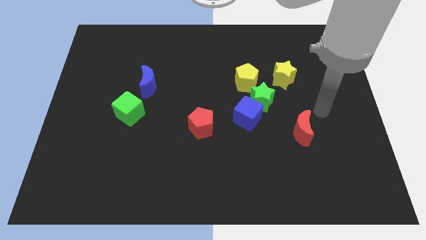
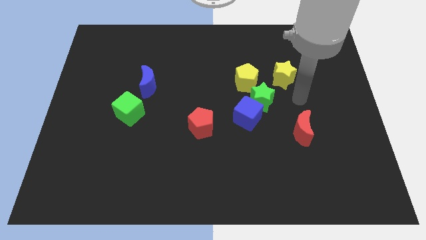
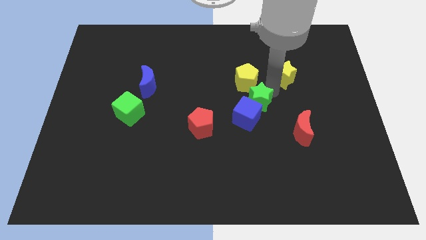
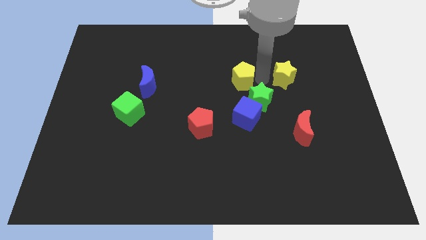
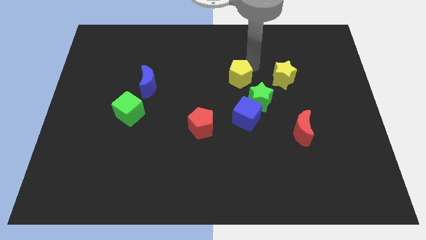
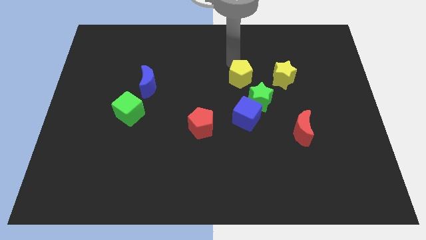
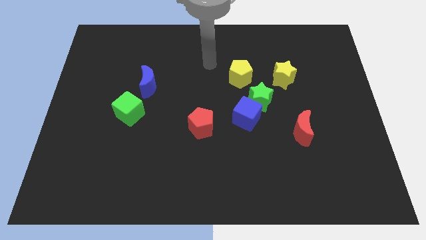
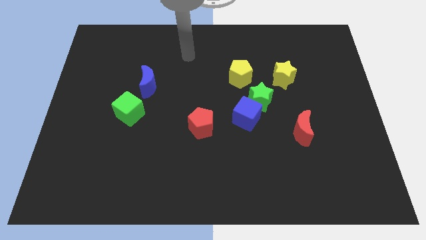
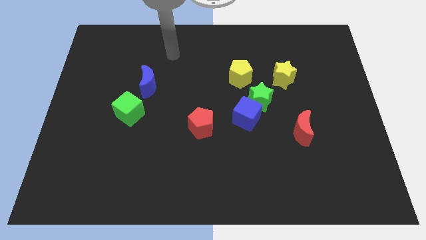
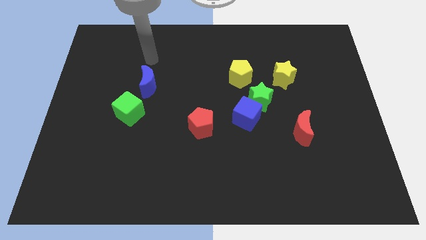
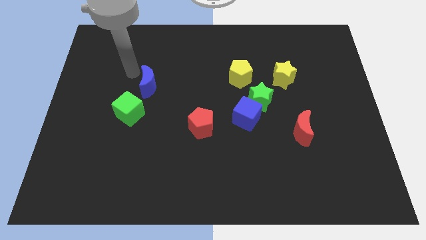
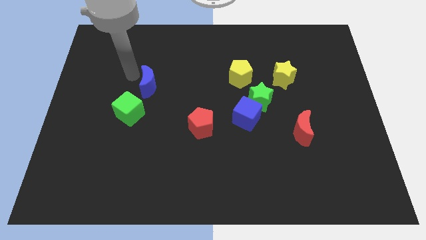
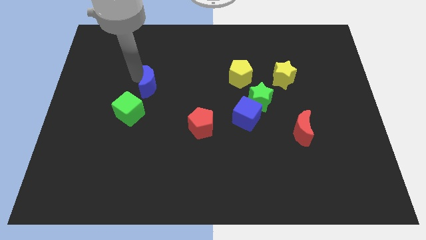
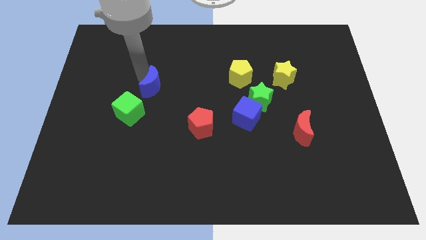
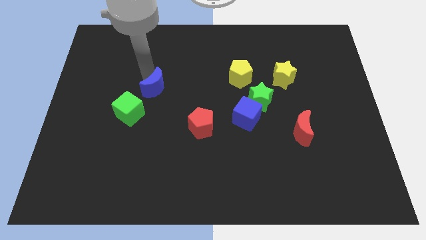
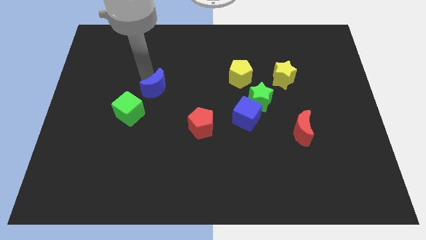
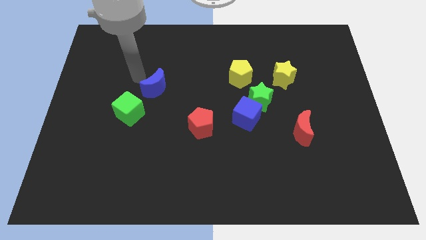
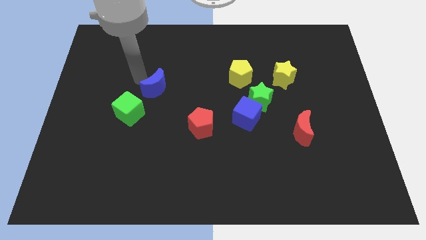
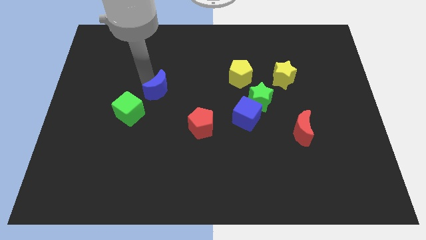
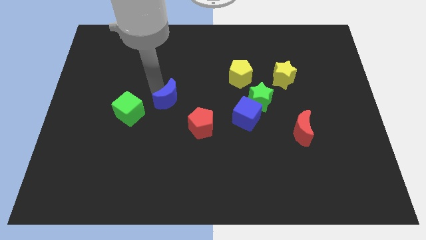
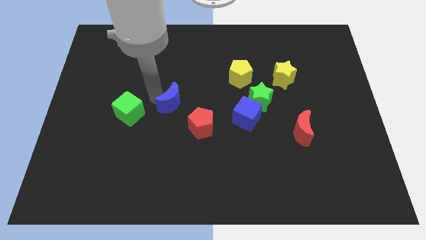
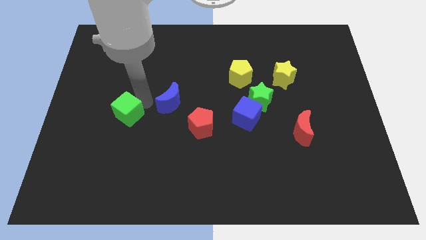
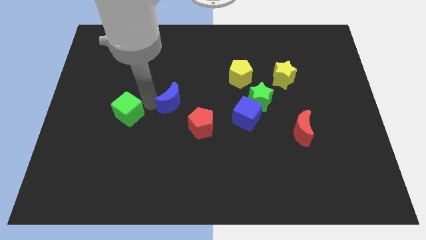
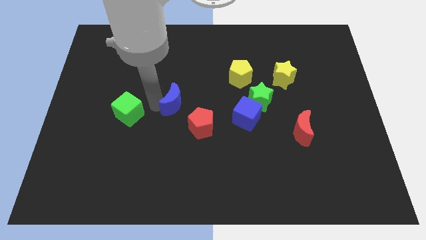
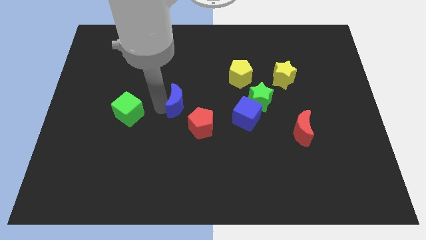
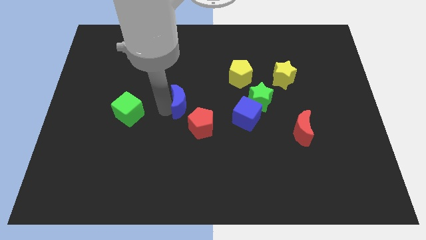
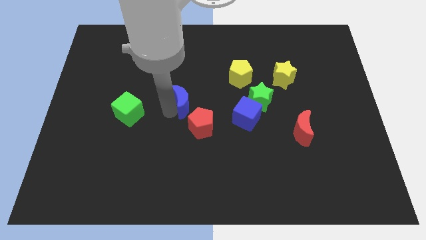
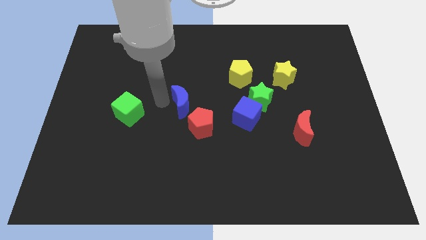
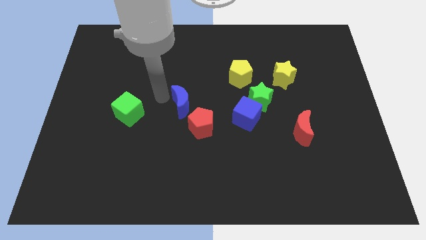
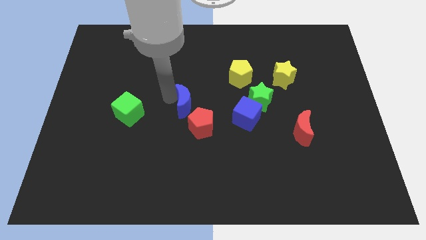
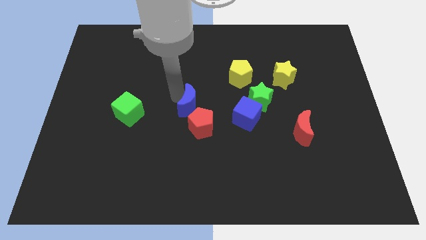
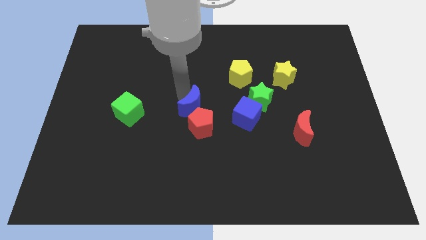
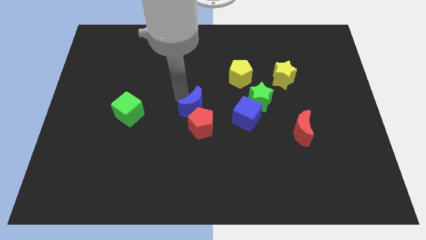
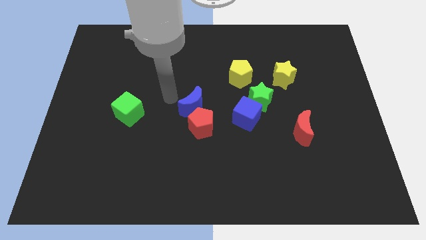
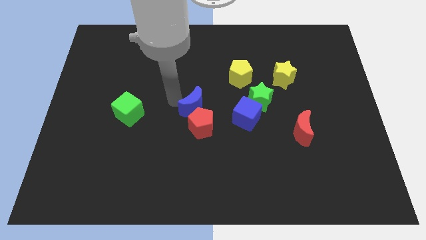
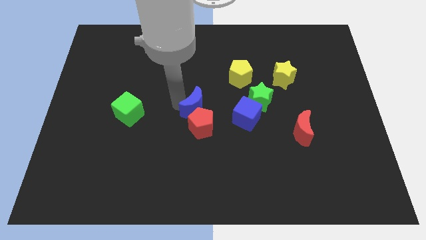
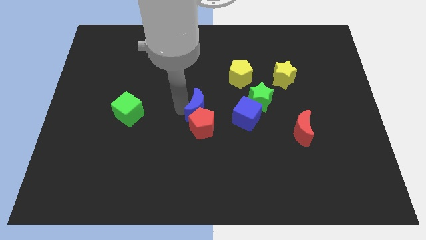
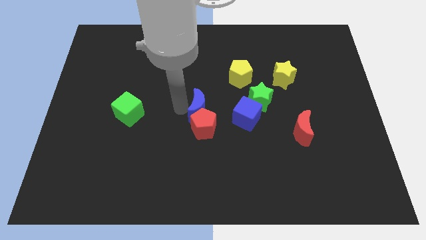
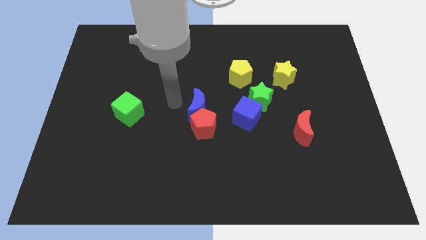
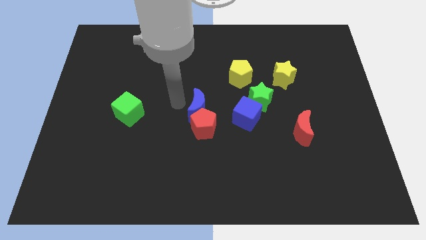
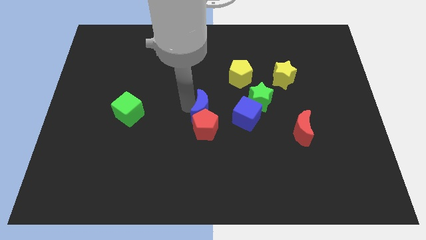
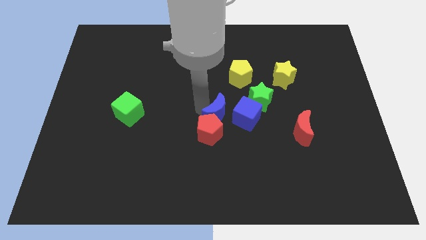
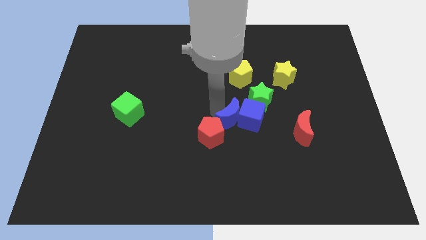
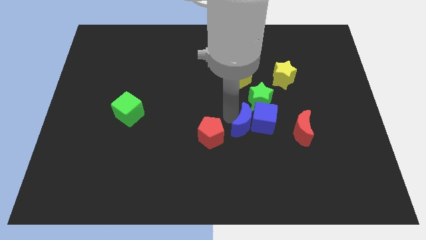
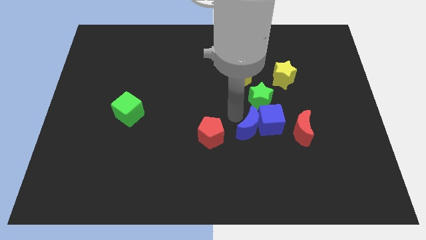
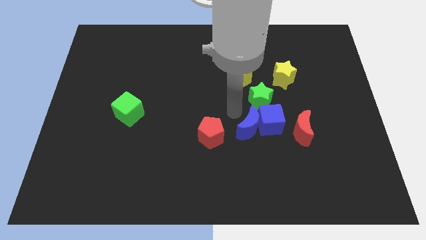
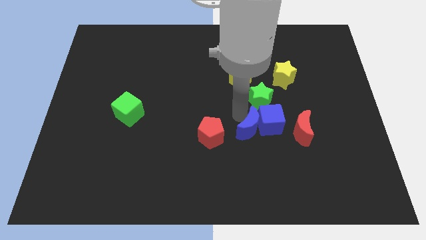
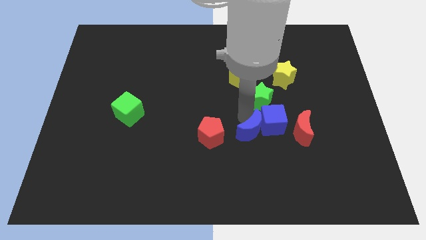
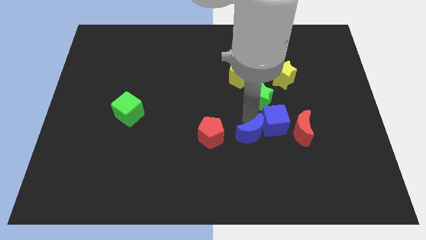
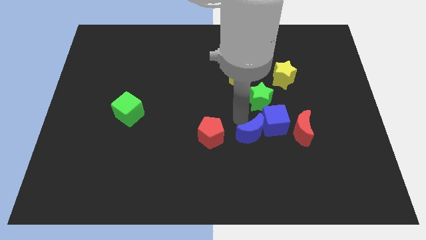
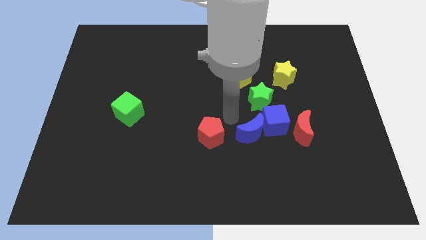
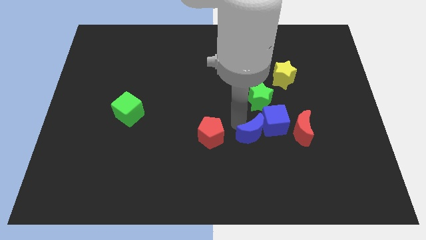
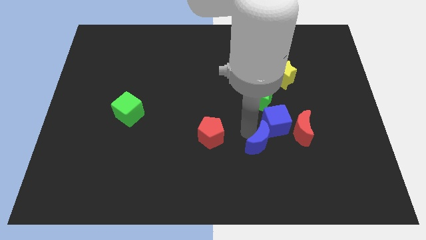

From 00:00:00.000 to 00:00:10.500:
move the blue moon to the bottom left of the red moon

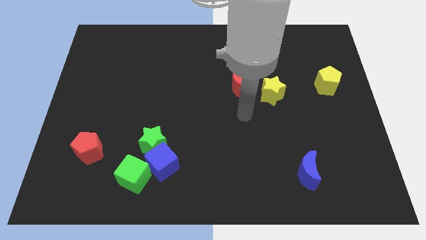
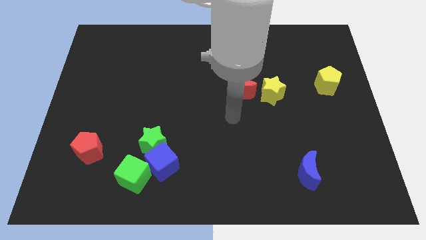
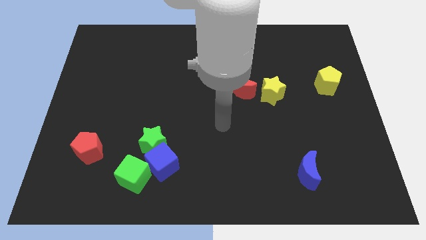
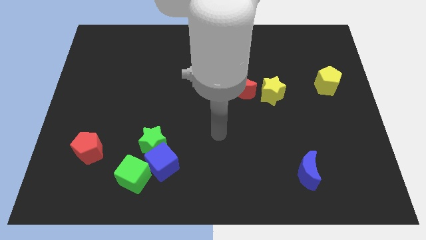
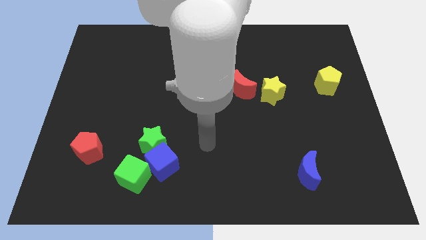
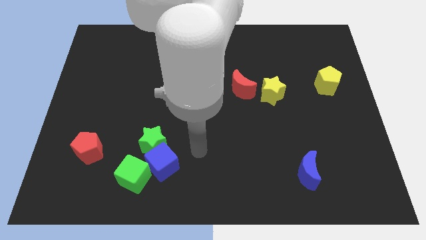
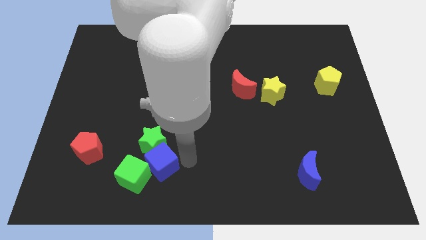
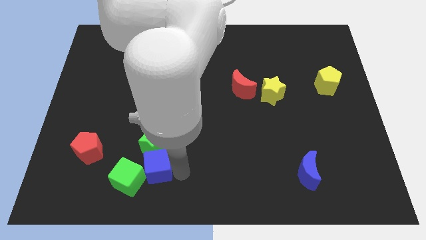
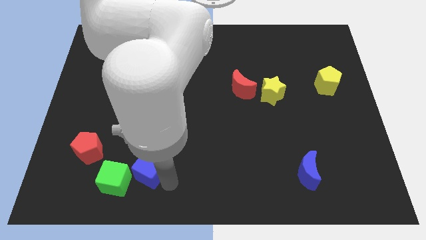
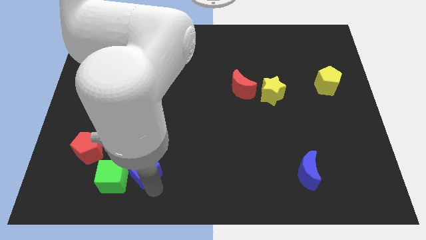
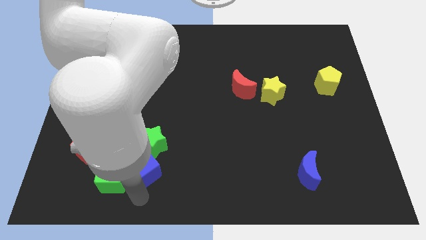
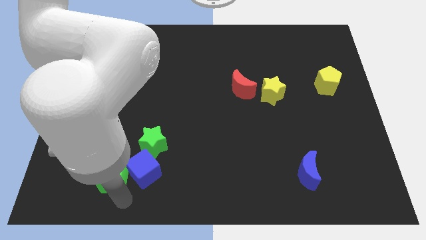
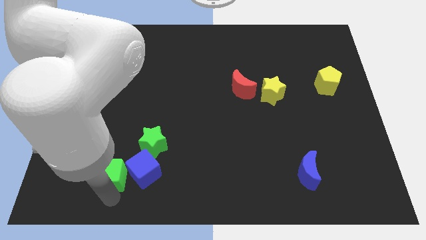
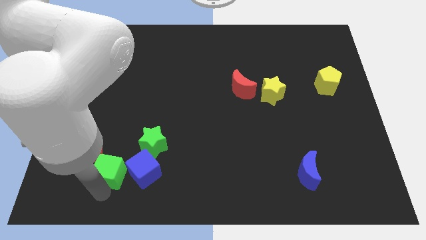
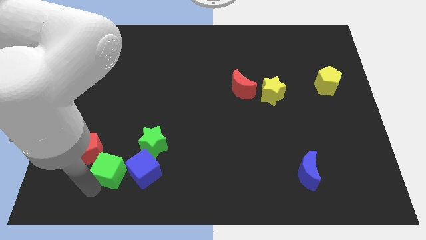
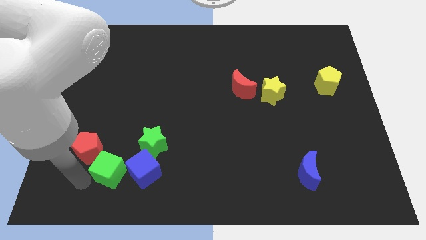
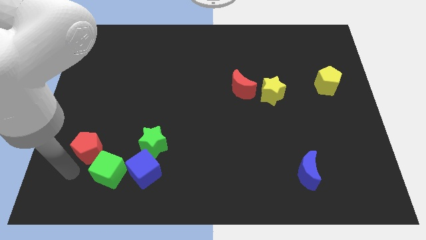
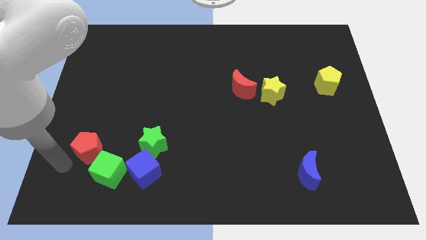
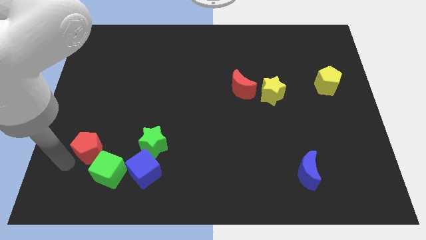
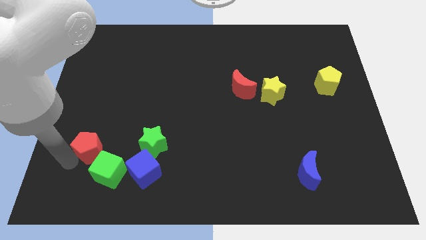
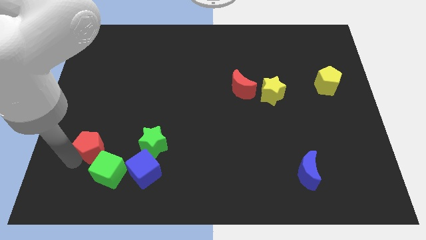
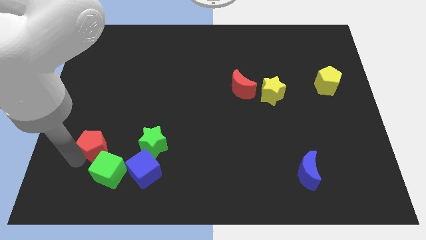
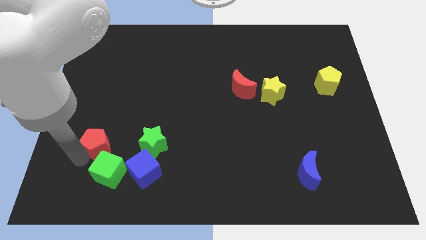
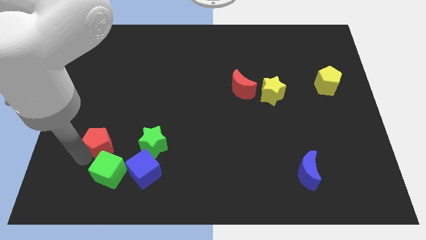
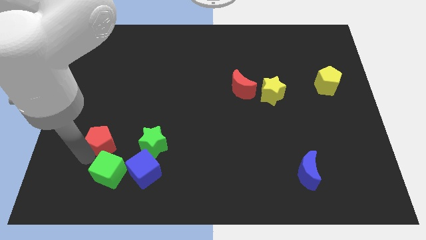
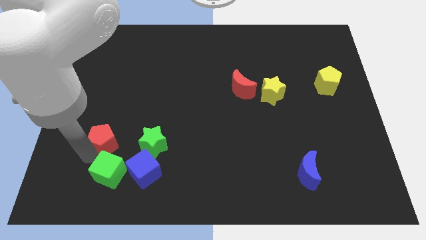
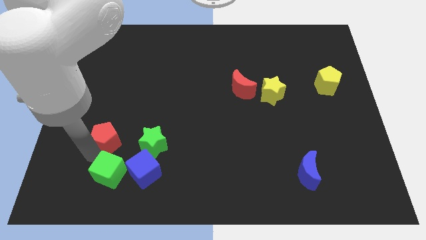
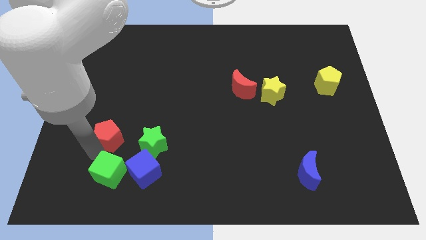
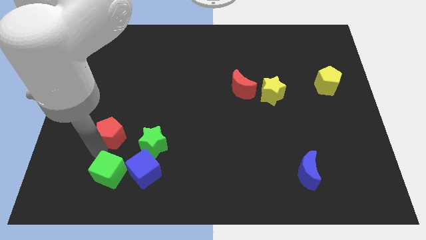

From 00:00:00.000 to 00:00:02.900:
put the red pentagon diagonally up and to the left of the green star
